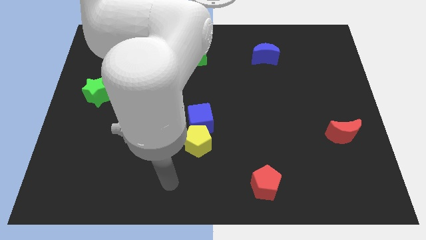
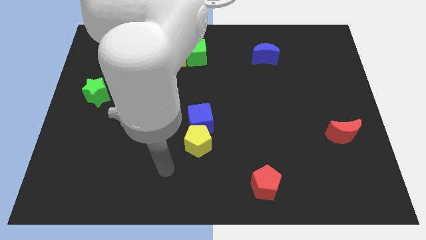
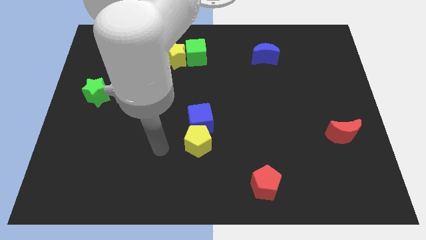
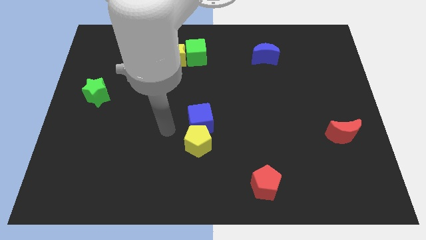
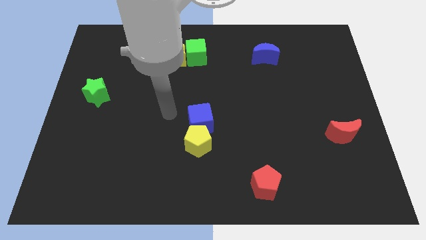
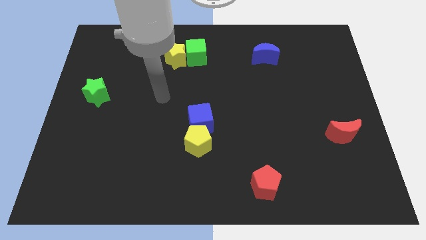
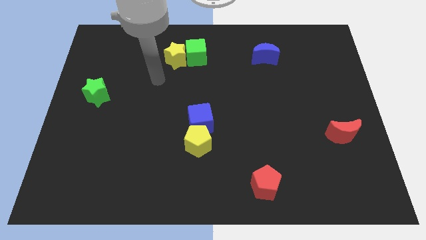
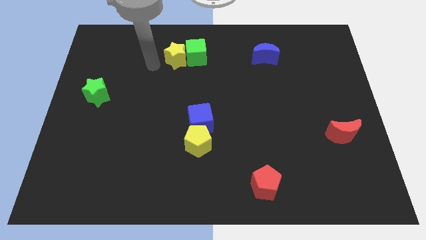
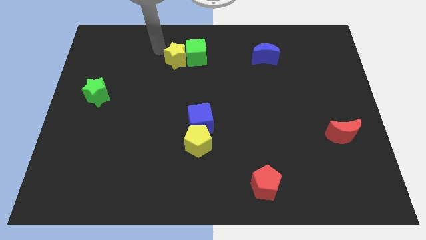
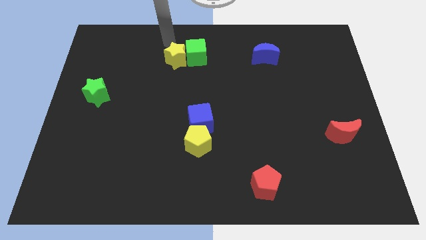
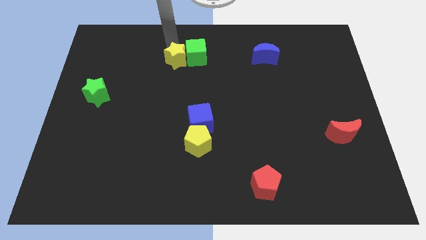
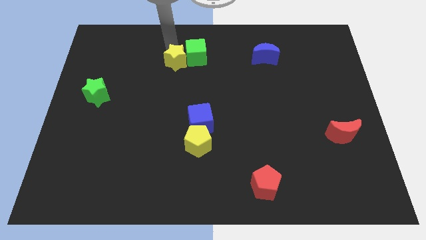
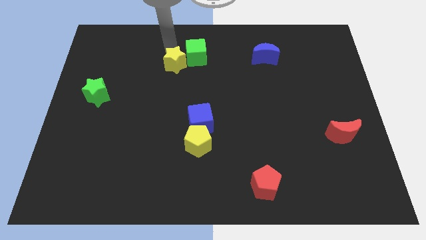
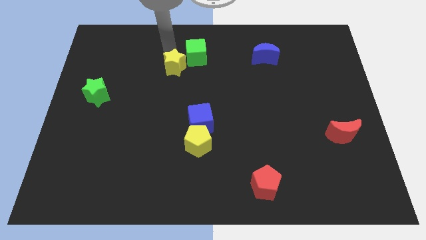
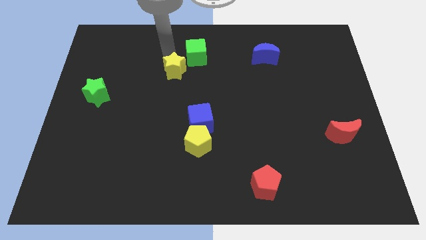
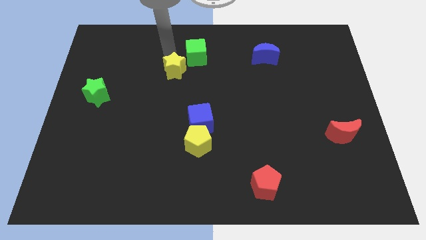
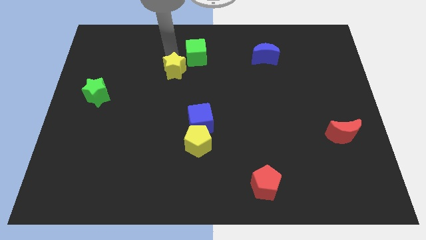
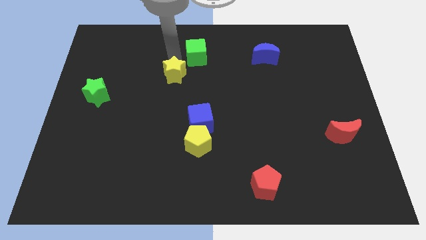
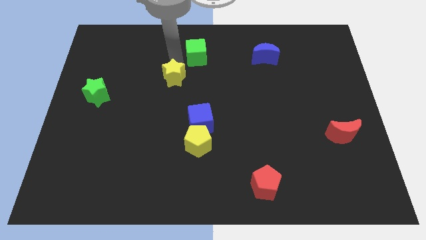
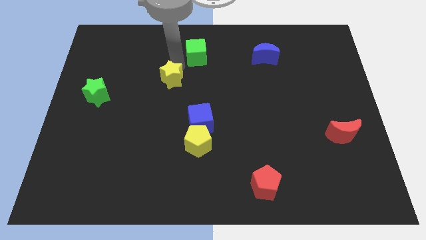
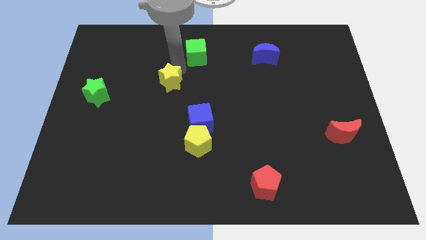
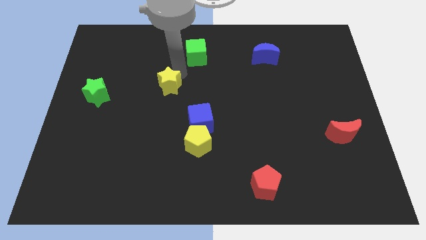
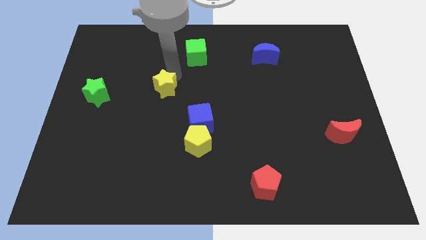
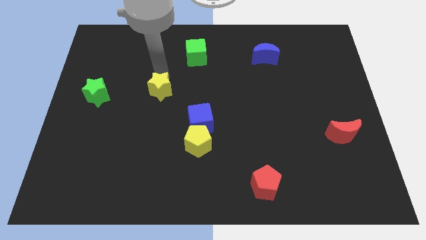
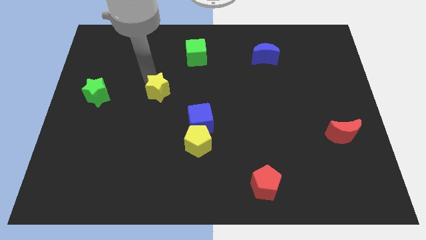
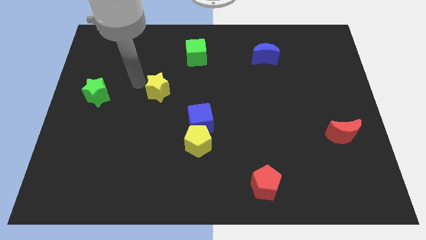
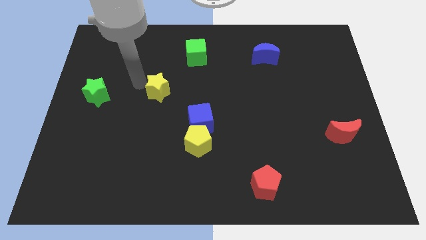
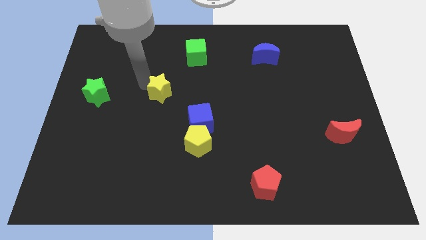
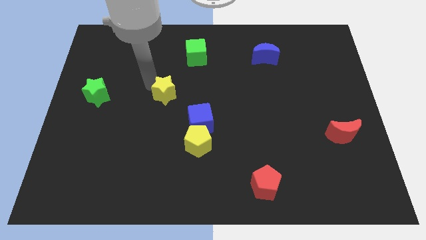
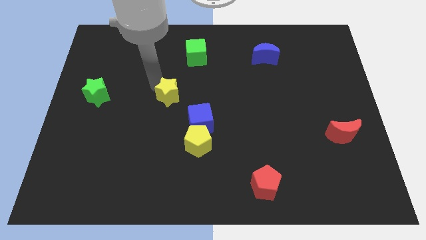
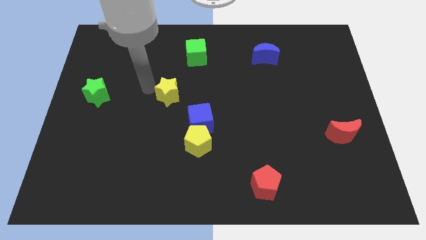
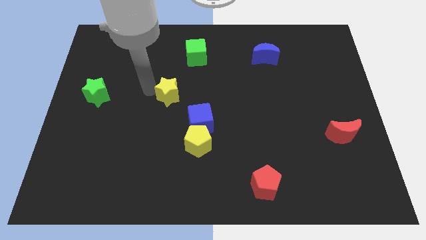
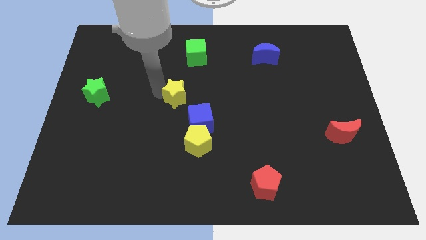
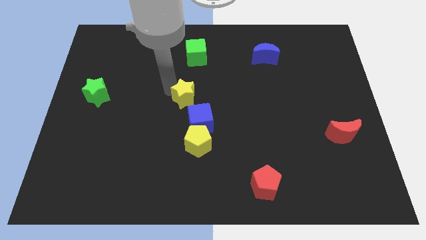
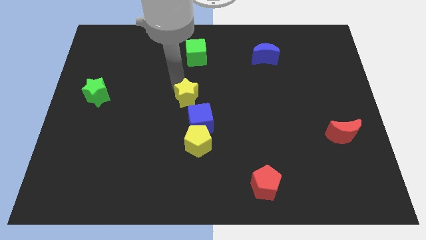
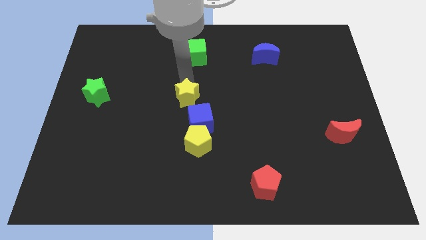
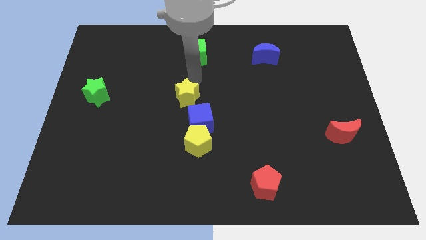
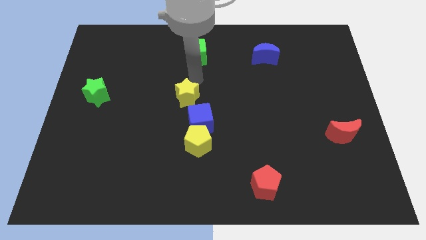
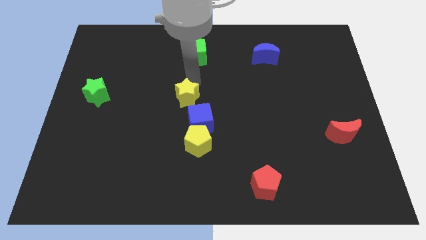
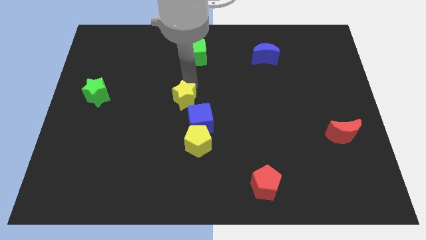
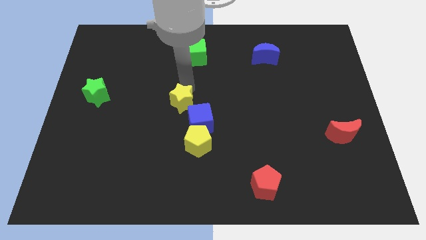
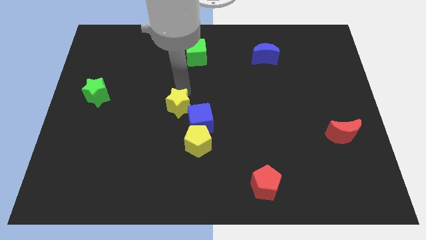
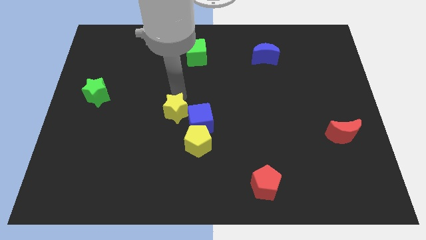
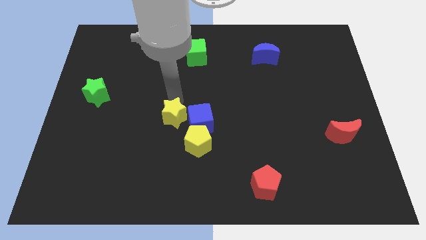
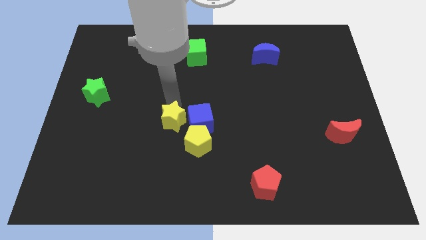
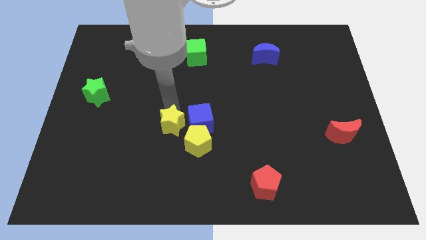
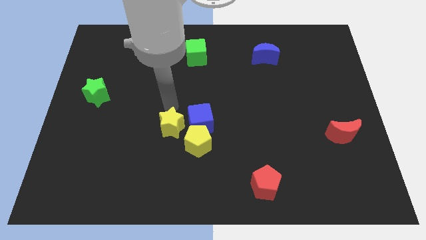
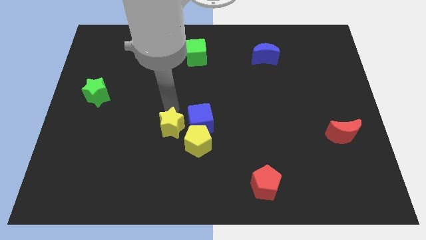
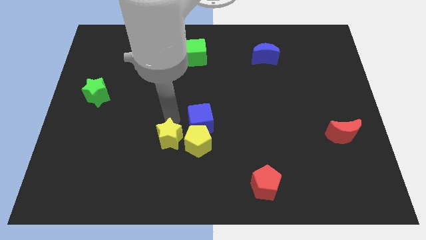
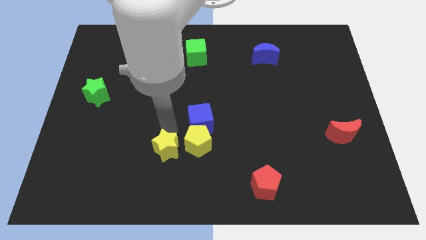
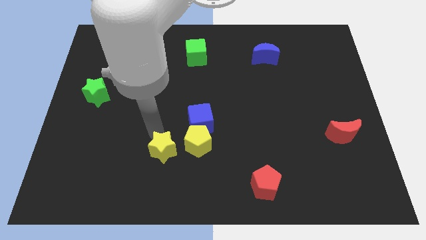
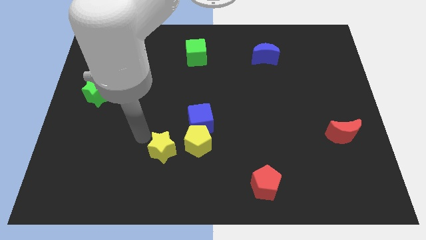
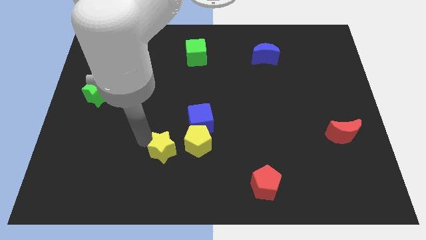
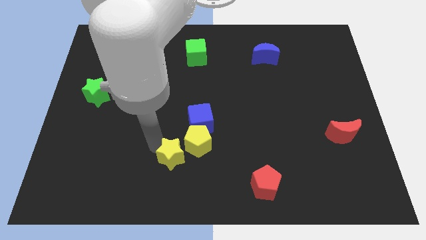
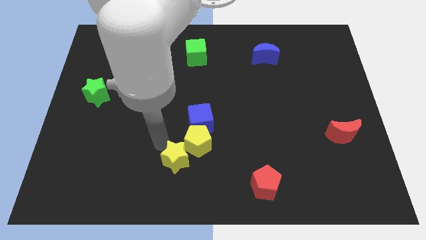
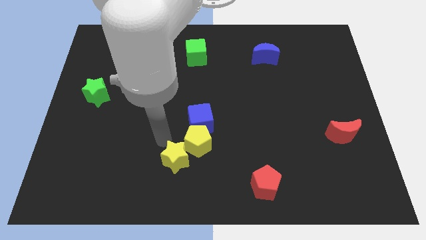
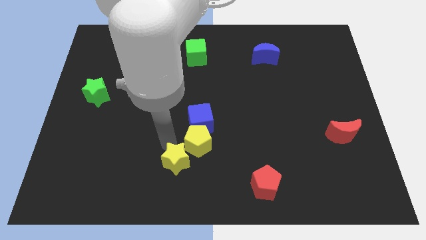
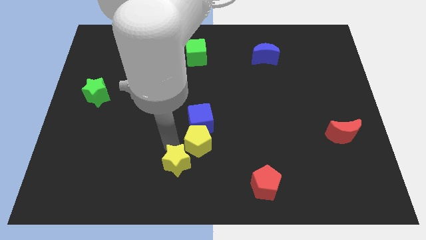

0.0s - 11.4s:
move the yellow star to the bottom
